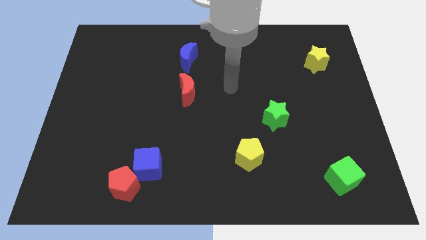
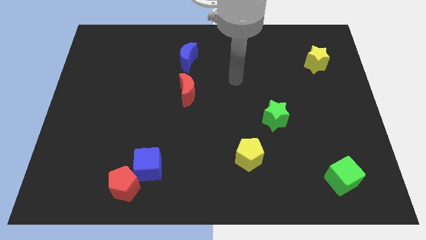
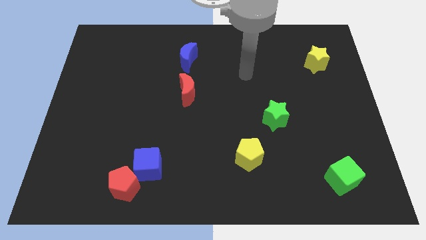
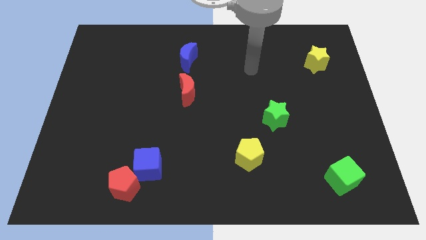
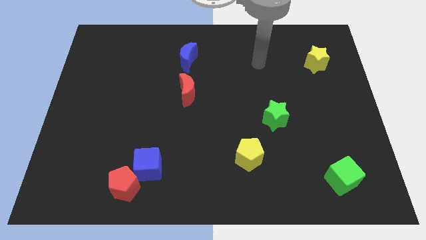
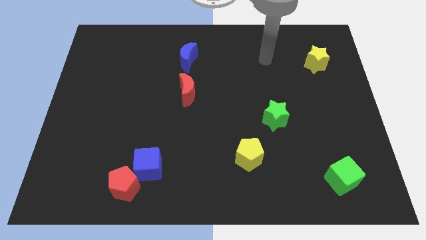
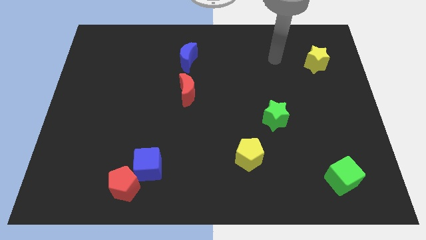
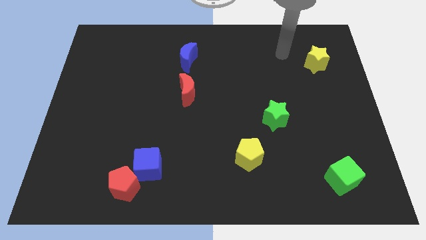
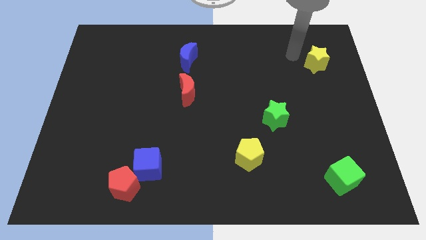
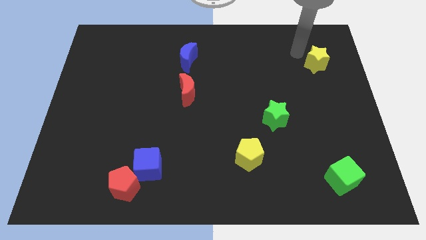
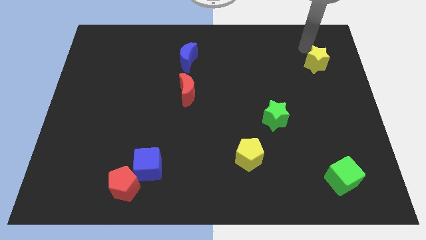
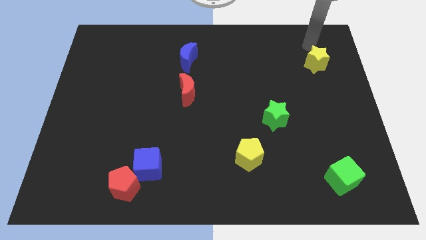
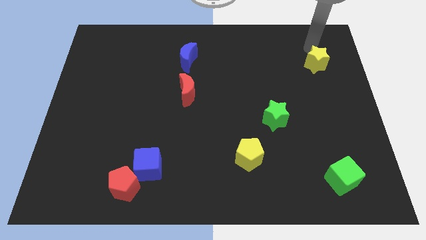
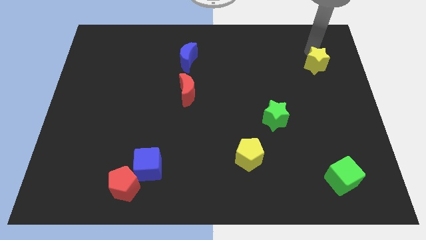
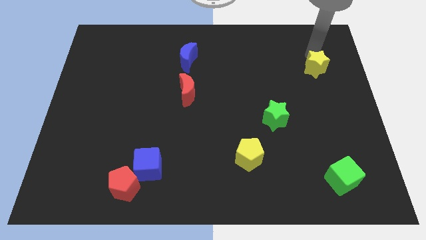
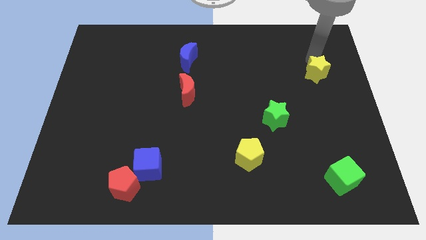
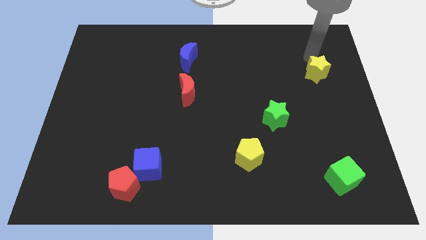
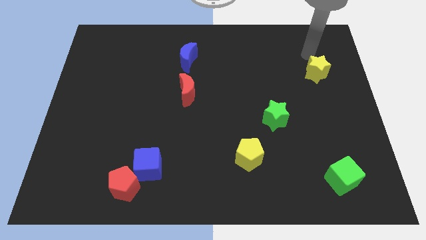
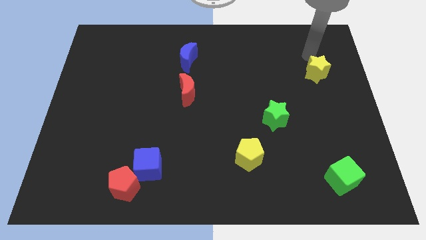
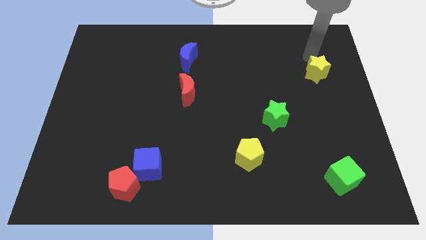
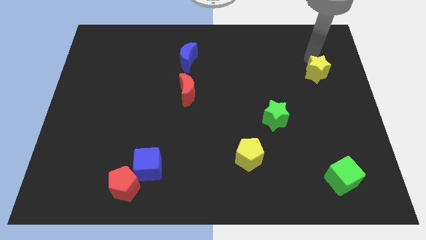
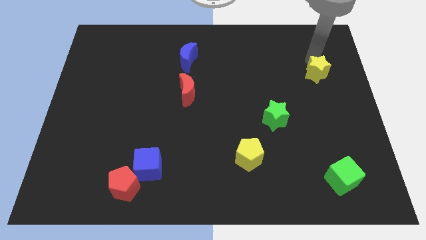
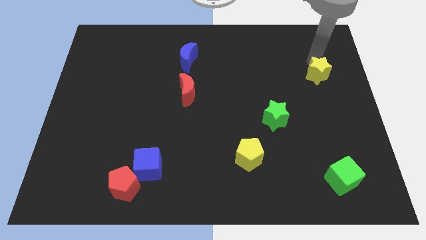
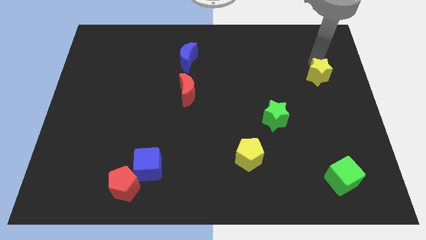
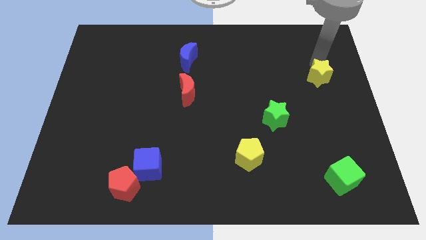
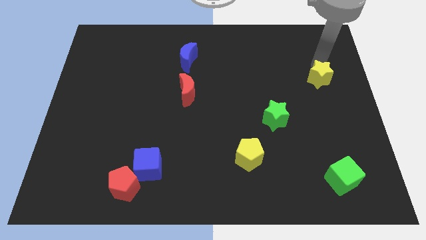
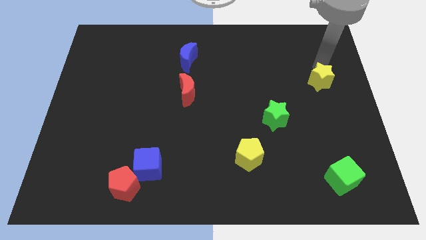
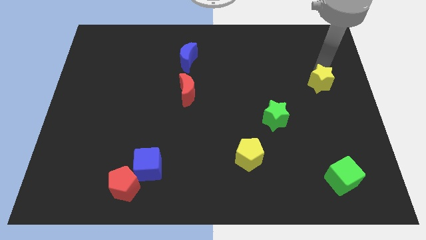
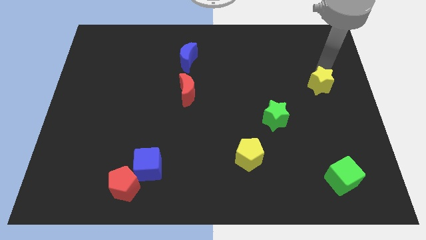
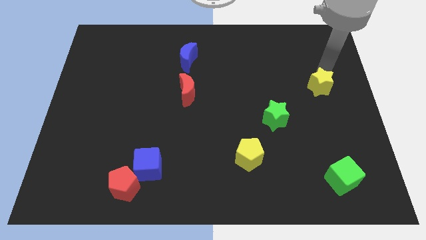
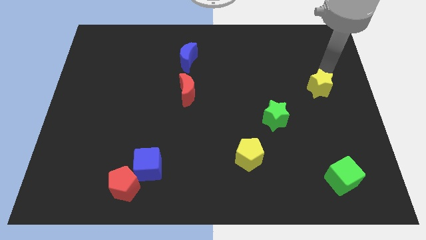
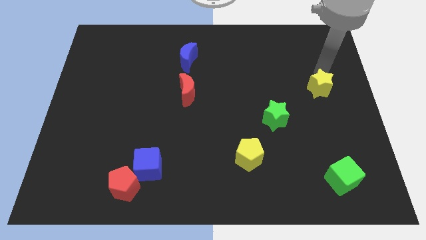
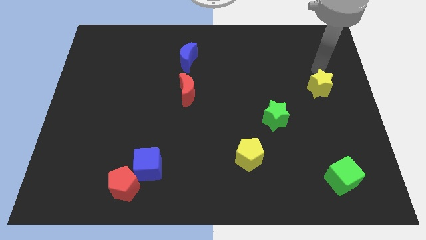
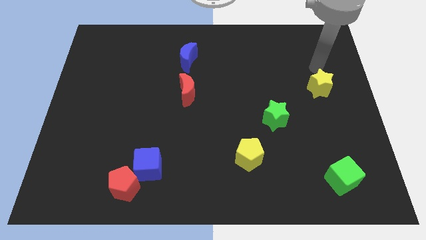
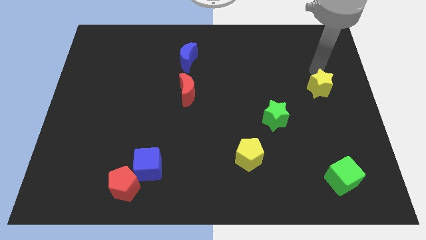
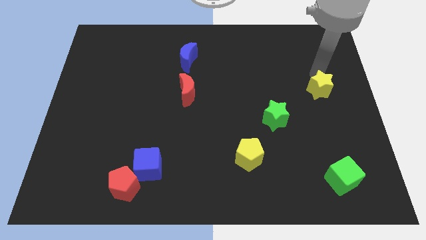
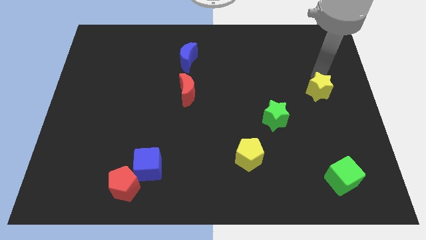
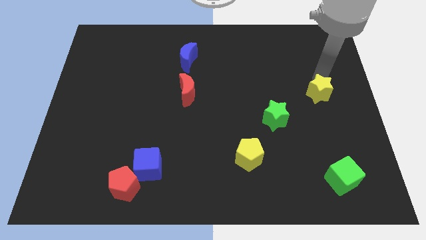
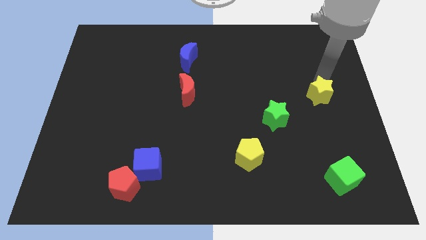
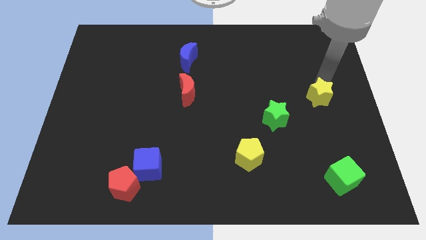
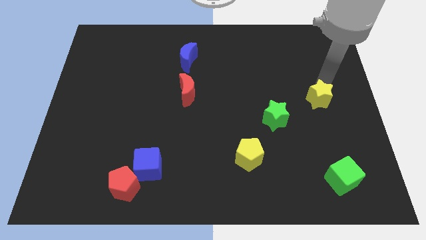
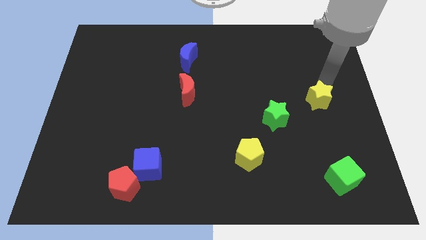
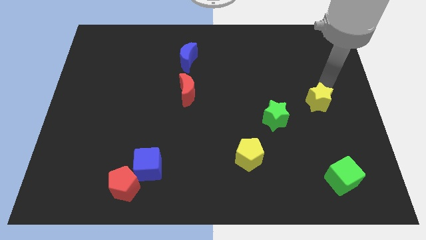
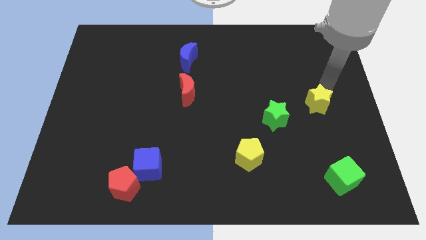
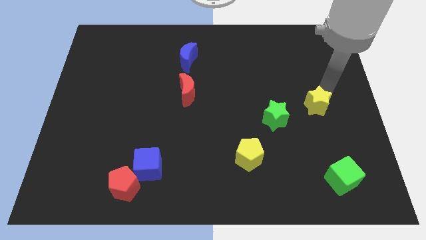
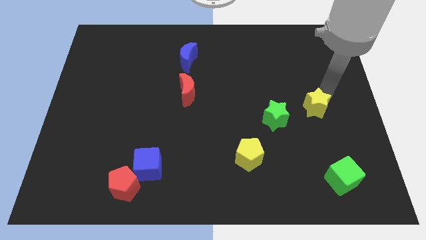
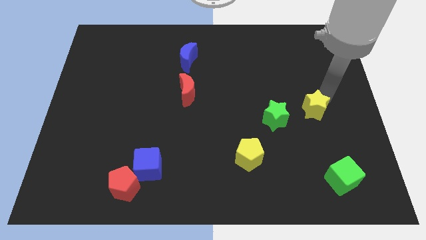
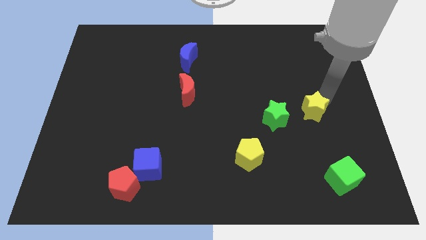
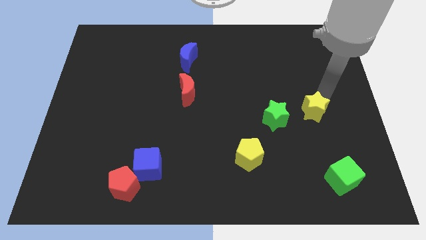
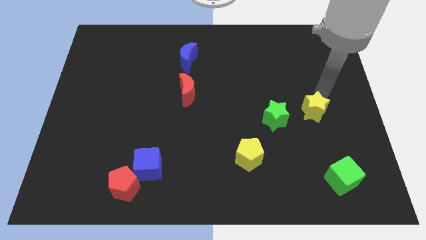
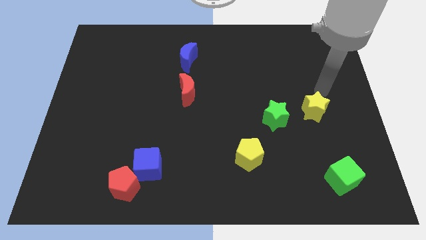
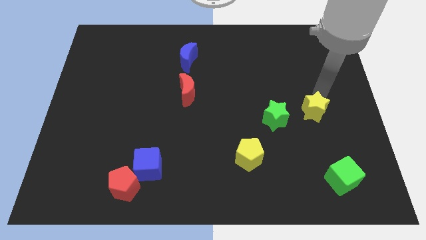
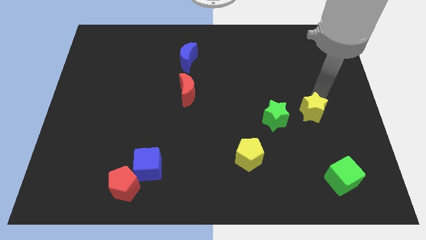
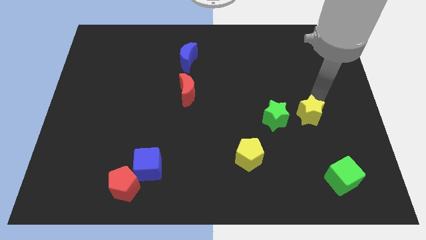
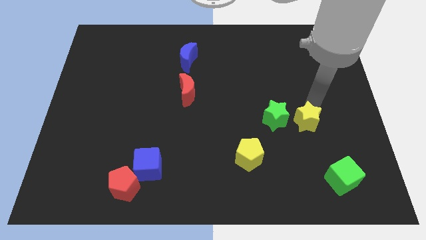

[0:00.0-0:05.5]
slide the yellow star diagonally down and to the right of the green star

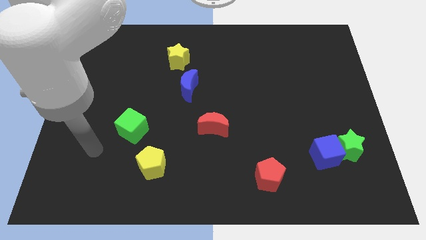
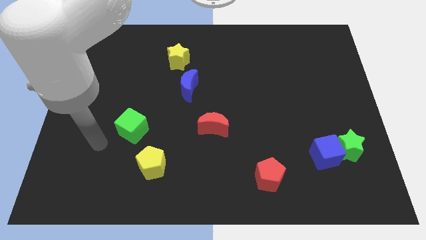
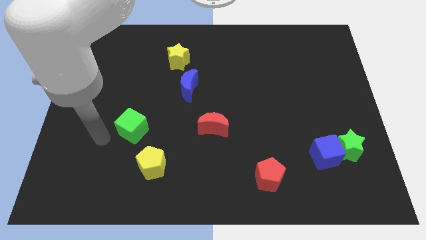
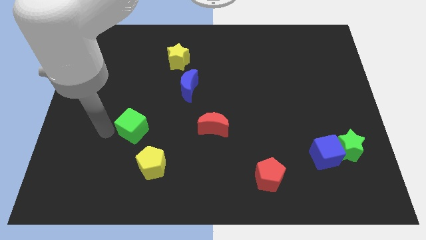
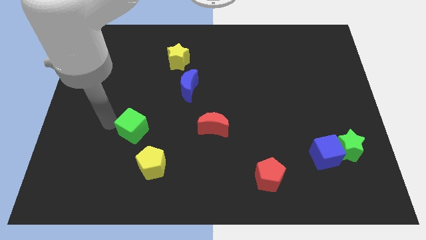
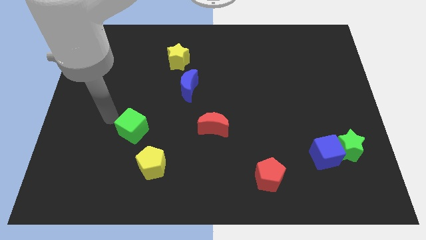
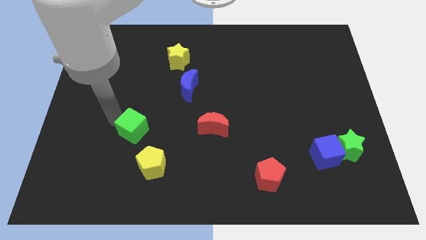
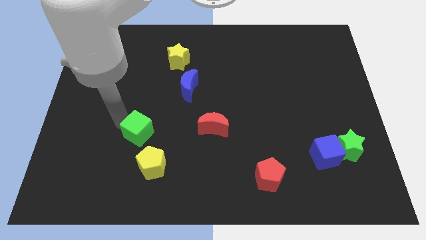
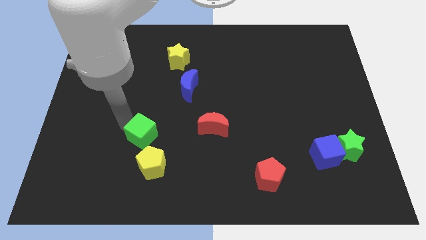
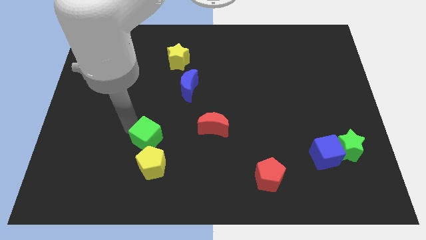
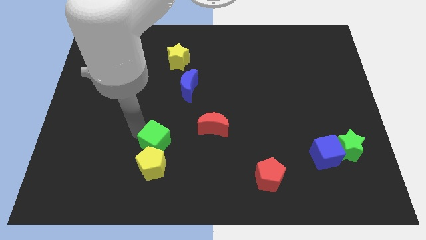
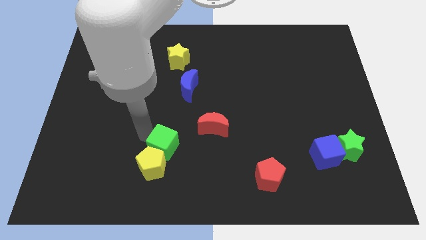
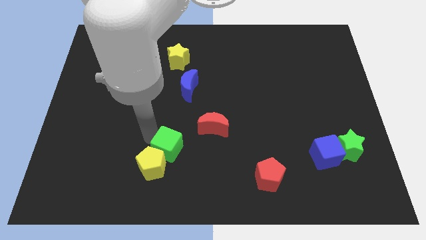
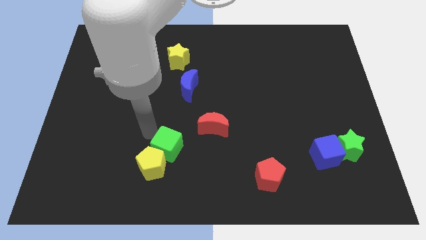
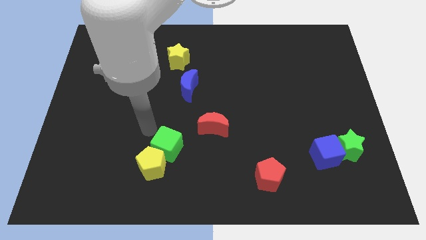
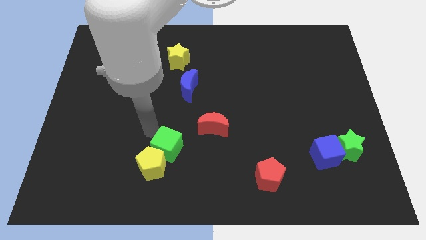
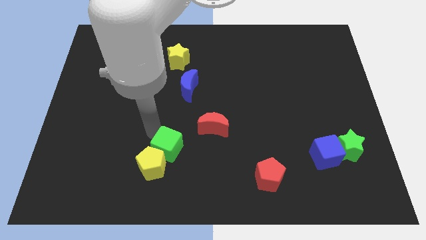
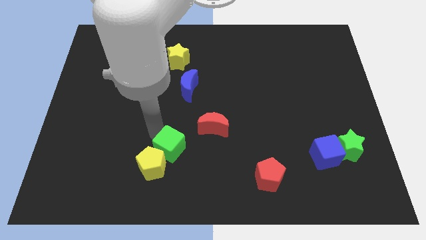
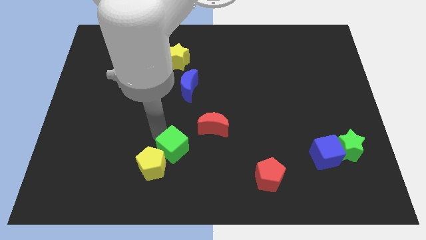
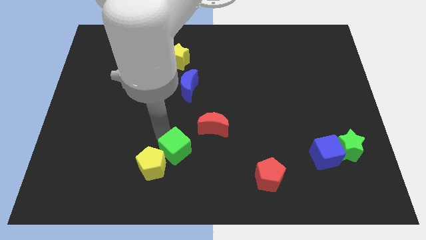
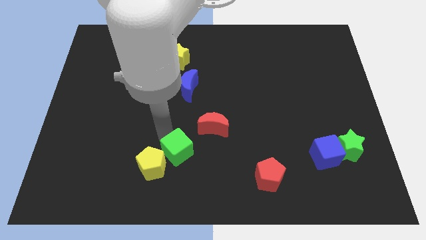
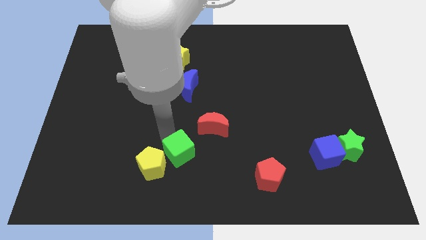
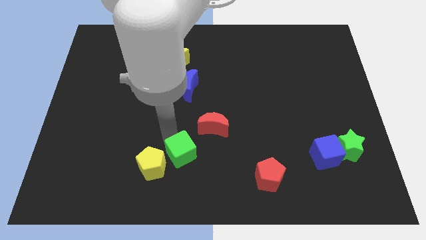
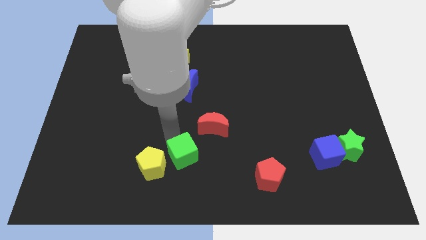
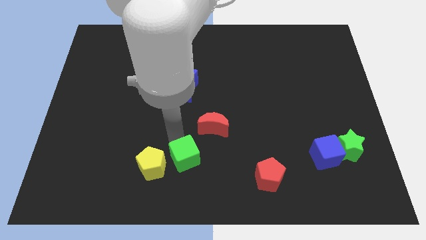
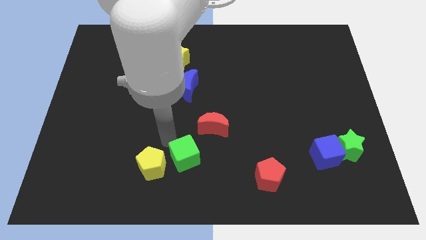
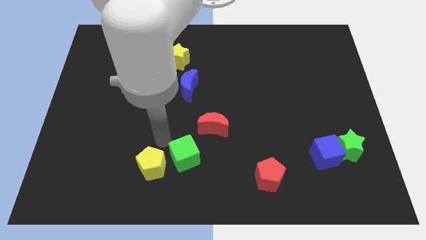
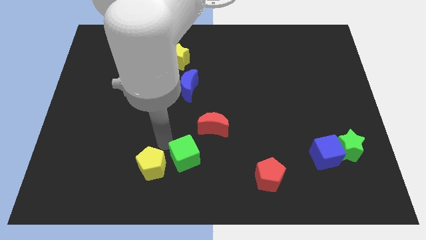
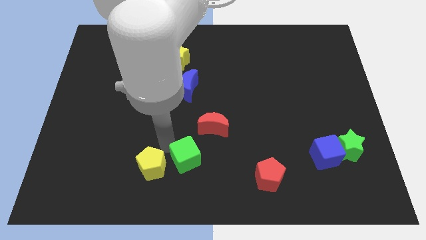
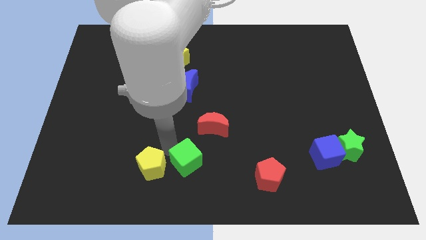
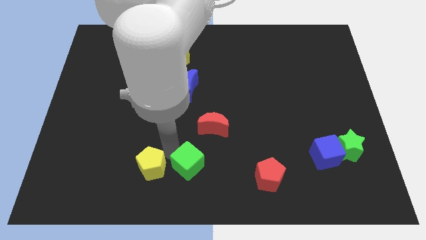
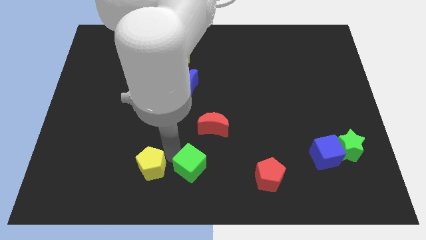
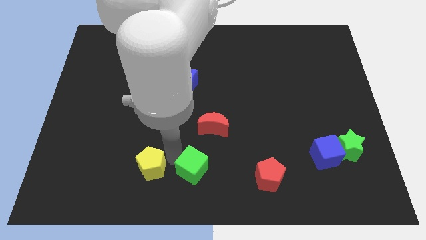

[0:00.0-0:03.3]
move the green cube to the left side of the red pentagon
